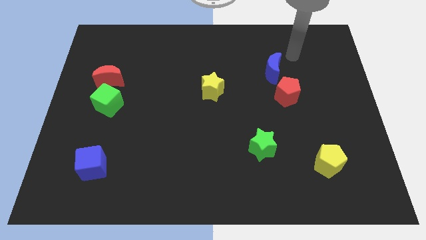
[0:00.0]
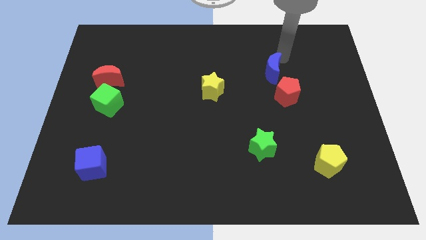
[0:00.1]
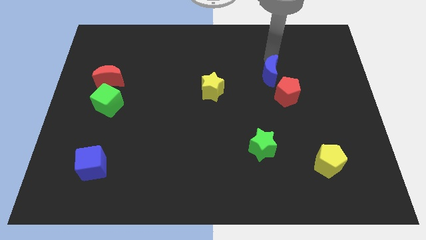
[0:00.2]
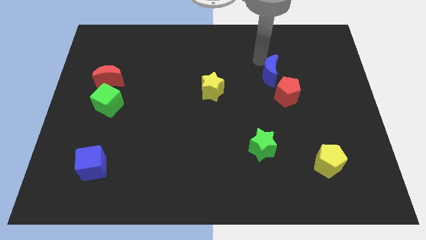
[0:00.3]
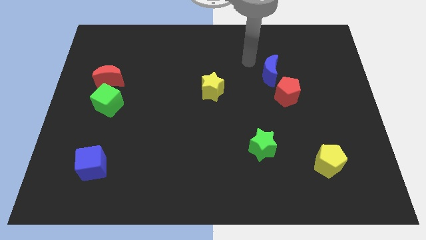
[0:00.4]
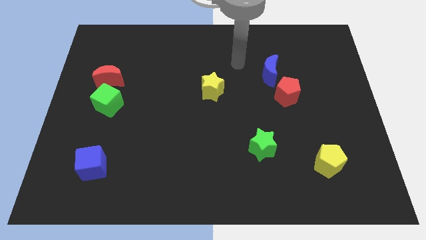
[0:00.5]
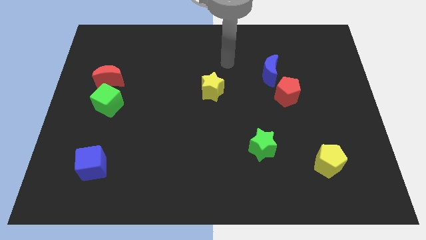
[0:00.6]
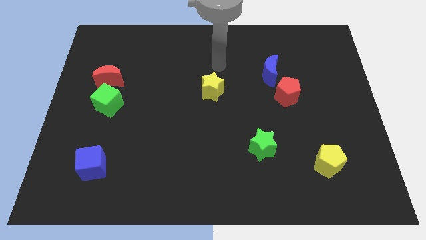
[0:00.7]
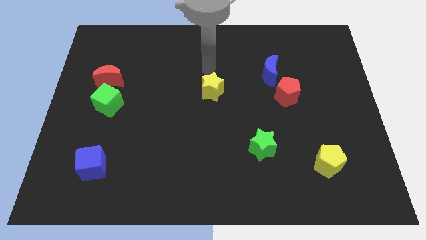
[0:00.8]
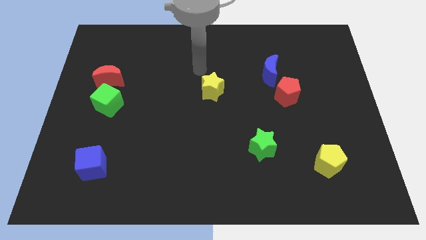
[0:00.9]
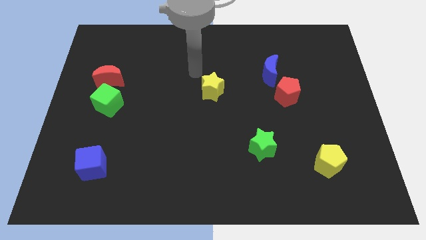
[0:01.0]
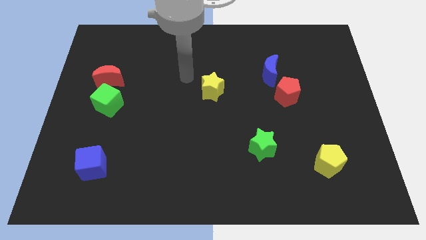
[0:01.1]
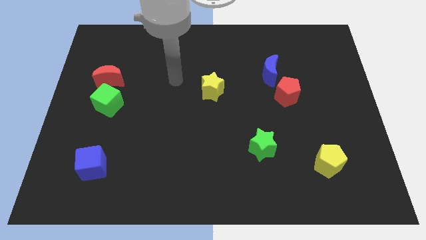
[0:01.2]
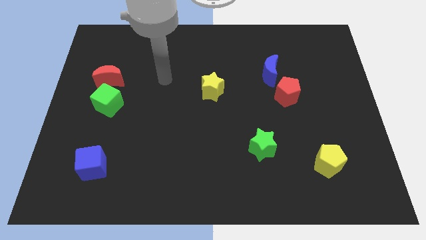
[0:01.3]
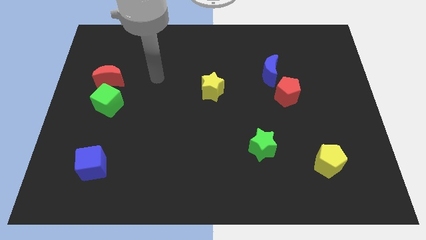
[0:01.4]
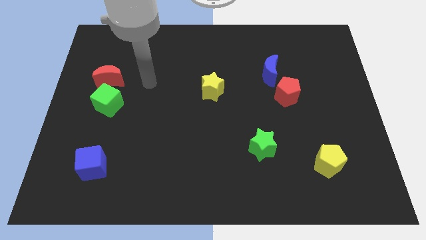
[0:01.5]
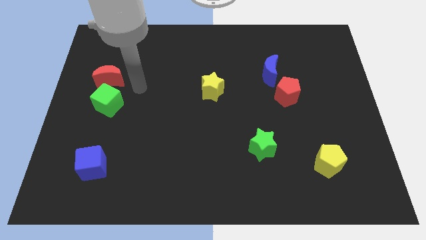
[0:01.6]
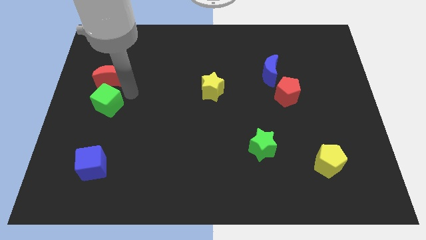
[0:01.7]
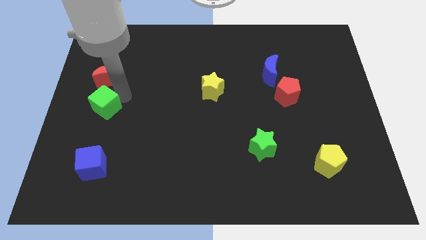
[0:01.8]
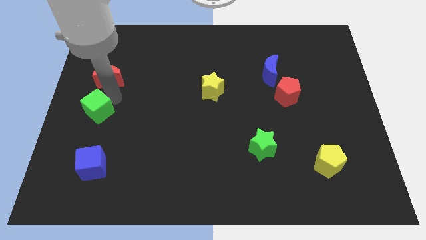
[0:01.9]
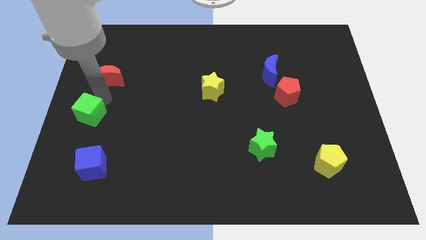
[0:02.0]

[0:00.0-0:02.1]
separate the red moon from the green cube

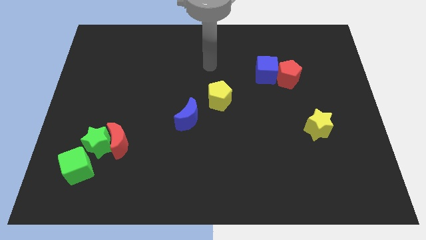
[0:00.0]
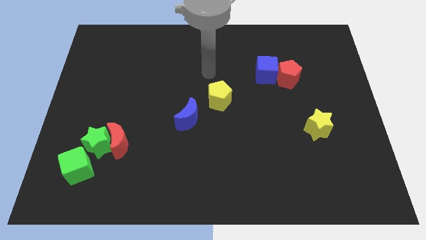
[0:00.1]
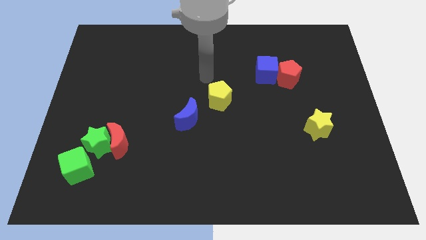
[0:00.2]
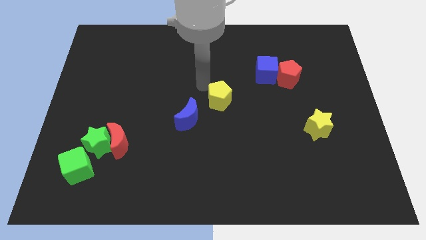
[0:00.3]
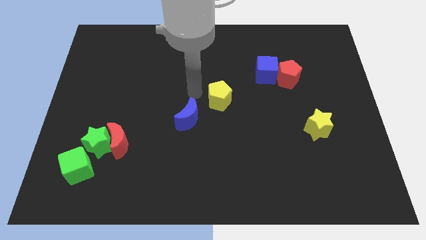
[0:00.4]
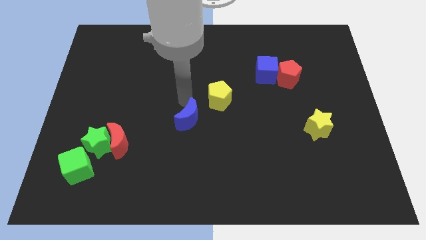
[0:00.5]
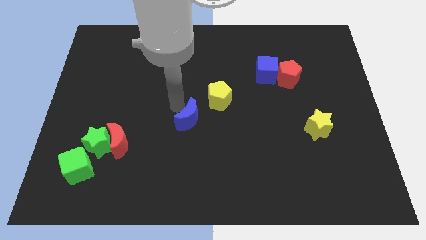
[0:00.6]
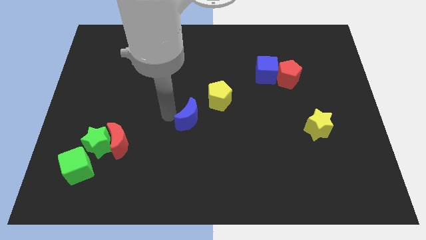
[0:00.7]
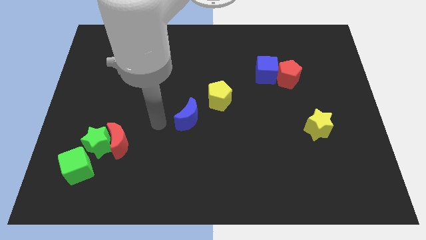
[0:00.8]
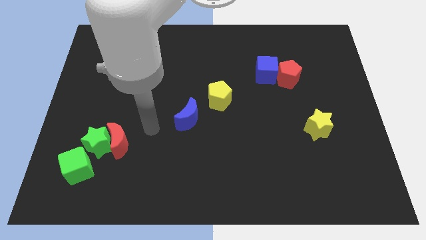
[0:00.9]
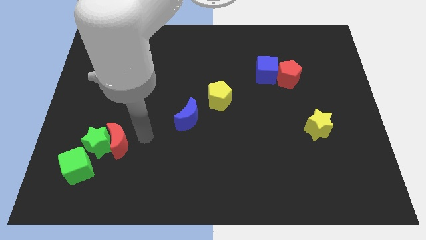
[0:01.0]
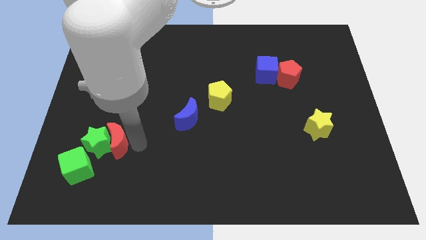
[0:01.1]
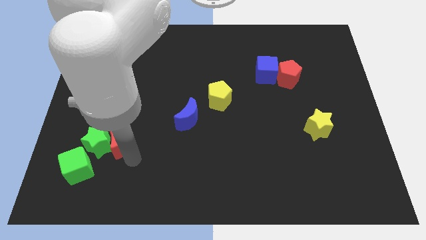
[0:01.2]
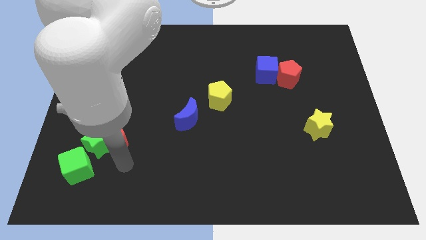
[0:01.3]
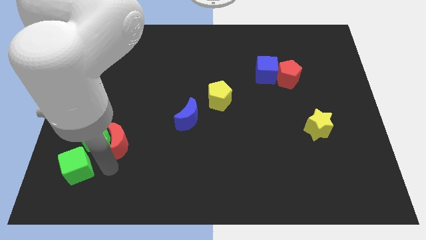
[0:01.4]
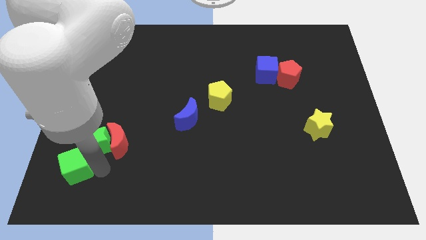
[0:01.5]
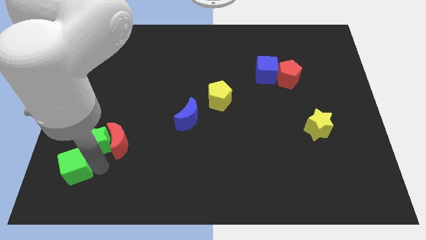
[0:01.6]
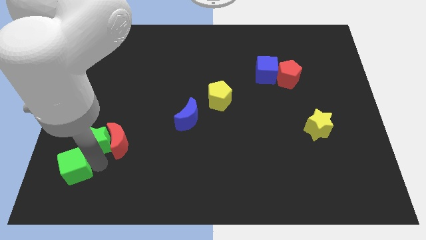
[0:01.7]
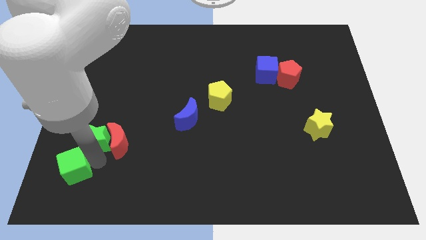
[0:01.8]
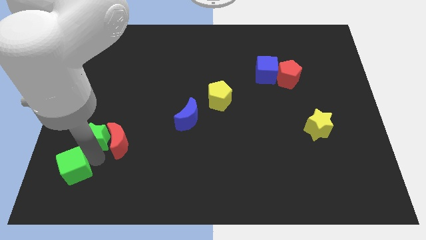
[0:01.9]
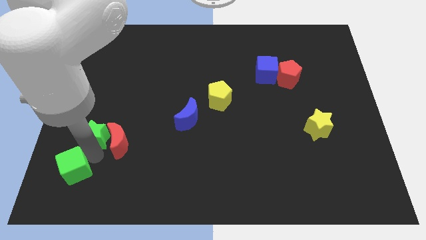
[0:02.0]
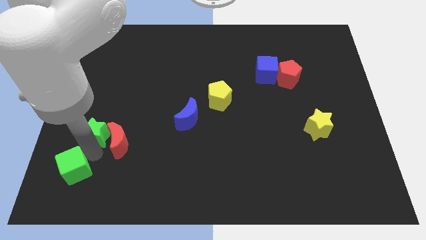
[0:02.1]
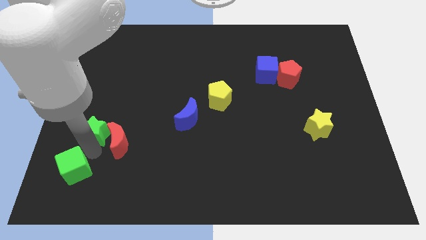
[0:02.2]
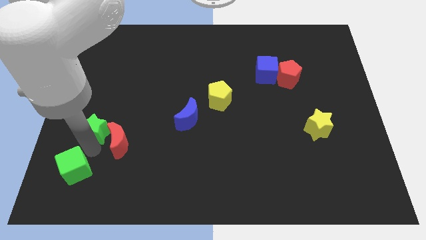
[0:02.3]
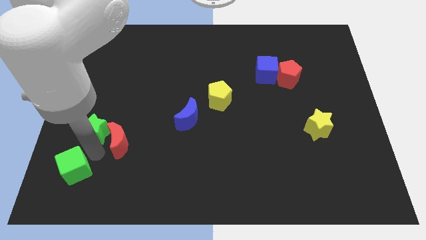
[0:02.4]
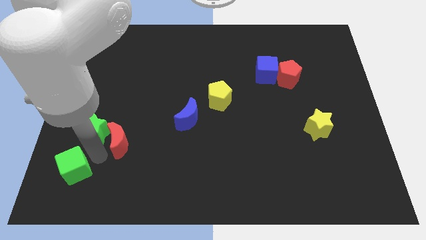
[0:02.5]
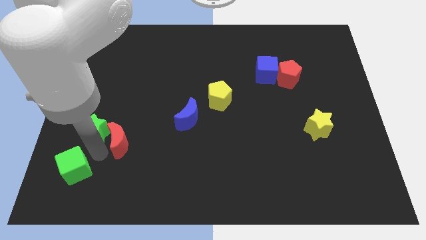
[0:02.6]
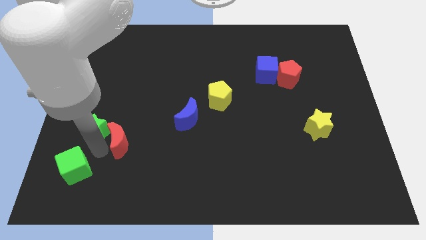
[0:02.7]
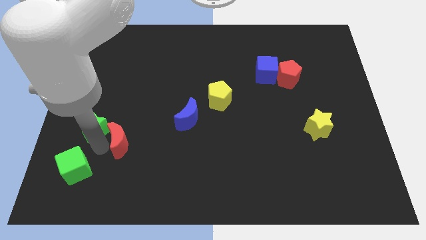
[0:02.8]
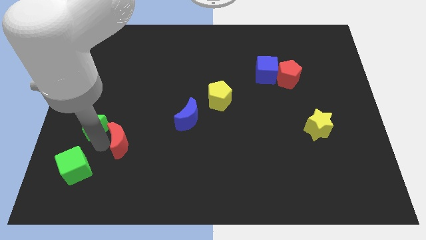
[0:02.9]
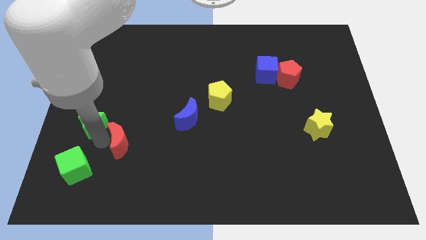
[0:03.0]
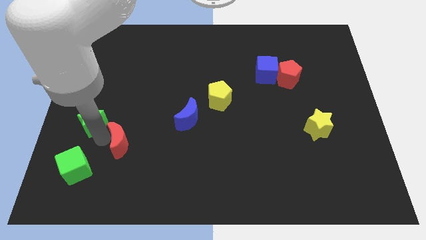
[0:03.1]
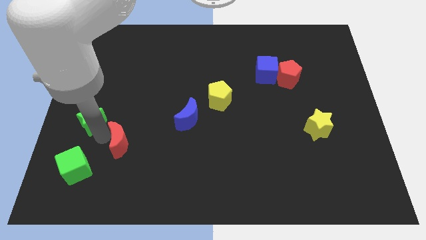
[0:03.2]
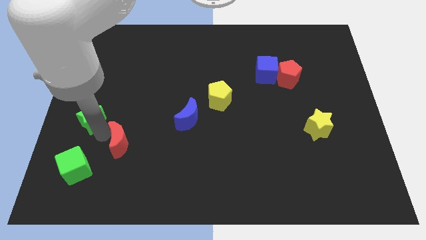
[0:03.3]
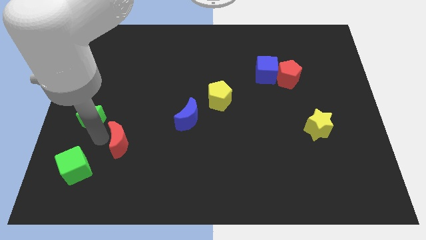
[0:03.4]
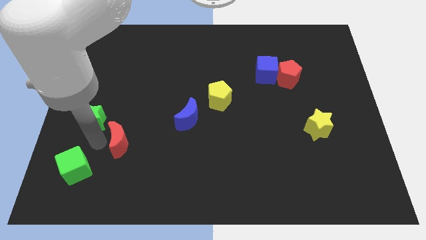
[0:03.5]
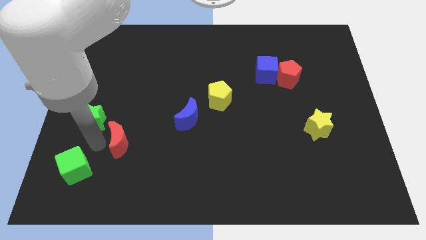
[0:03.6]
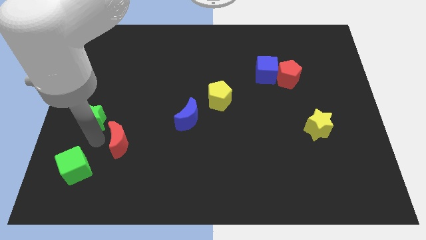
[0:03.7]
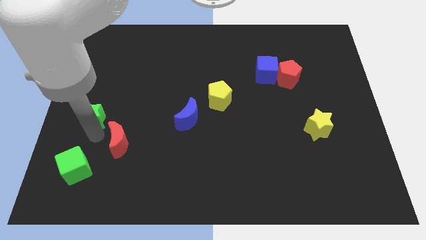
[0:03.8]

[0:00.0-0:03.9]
separate the green star from the red moon and green cube

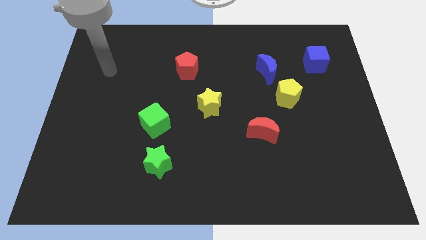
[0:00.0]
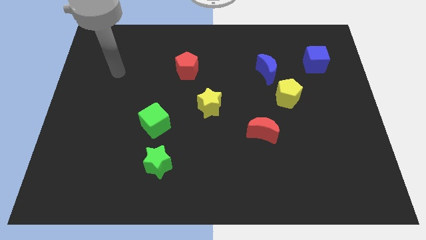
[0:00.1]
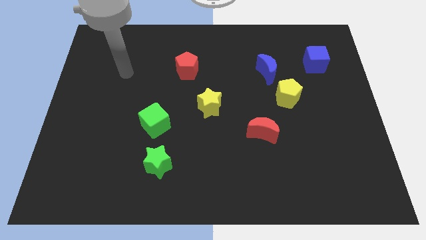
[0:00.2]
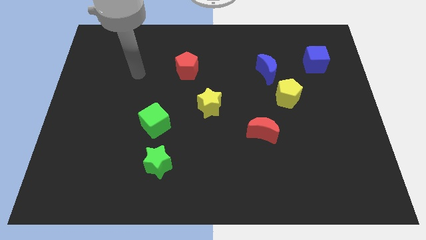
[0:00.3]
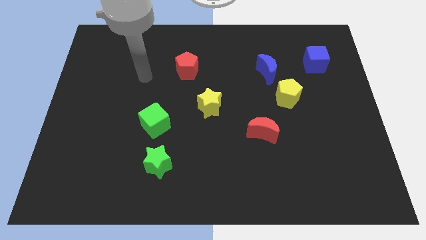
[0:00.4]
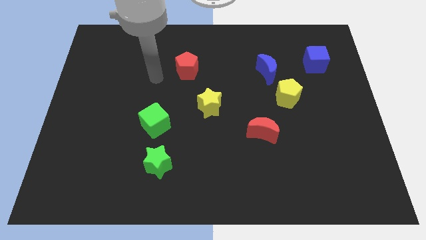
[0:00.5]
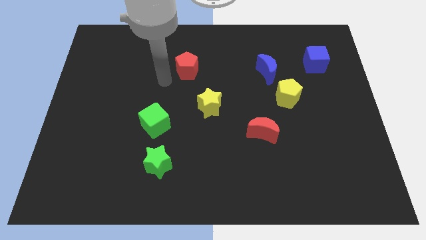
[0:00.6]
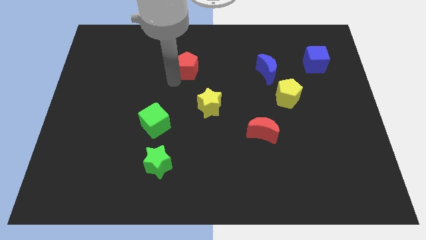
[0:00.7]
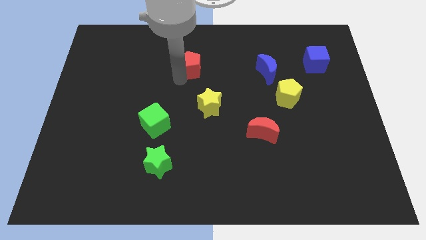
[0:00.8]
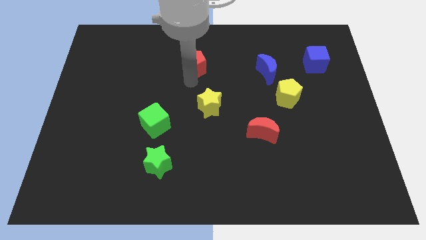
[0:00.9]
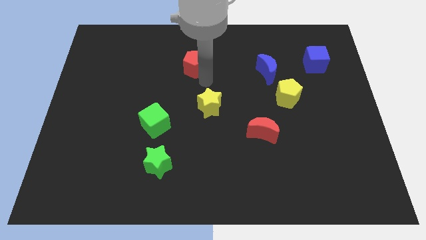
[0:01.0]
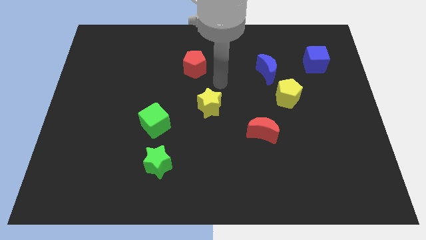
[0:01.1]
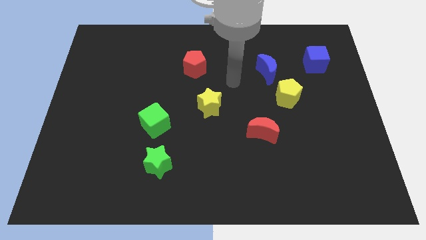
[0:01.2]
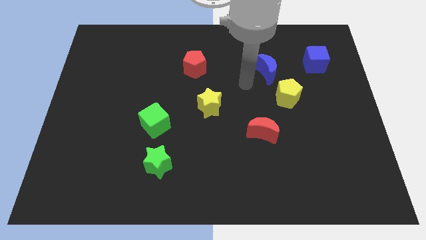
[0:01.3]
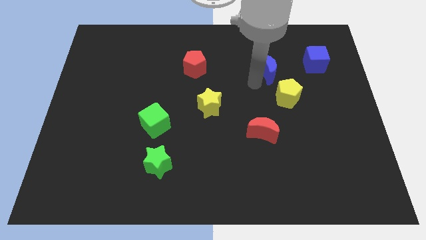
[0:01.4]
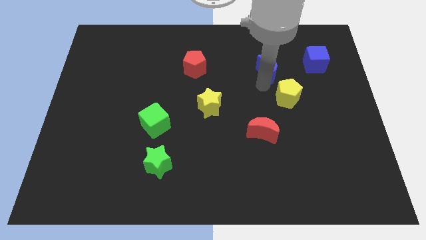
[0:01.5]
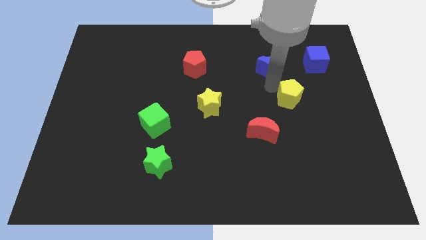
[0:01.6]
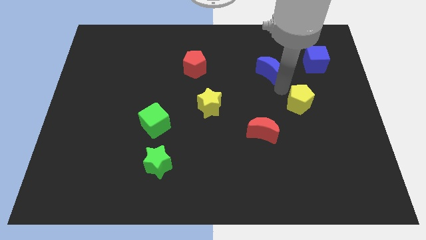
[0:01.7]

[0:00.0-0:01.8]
separate the blue moon from the yellow pentagon

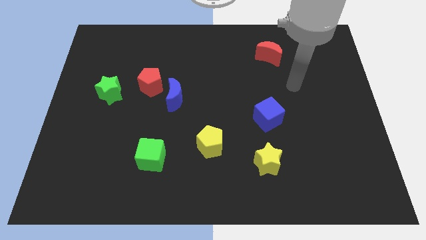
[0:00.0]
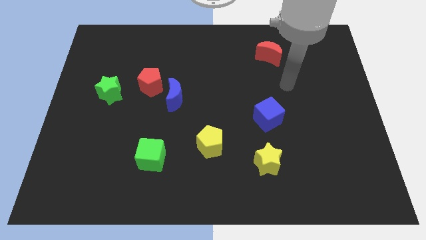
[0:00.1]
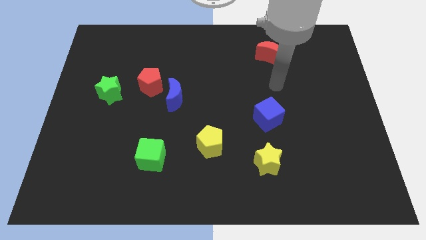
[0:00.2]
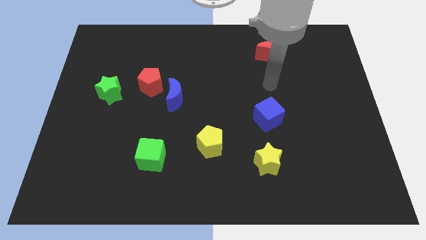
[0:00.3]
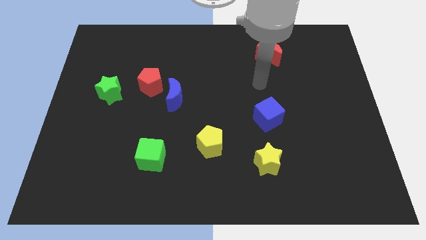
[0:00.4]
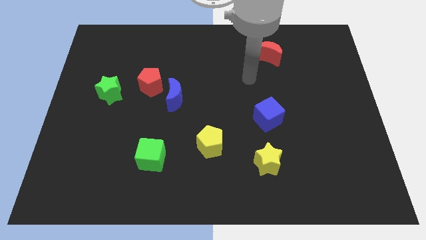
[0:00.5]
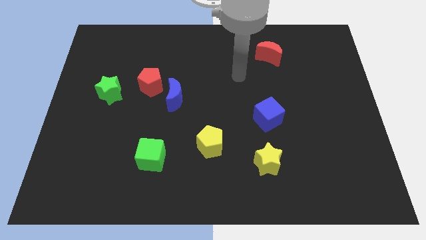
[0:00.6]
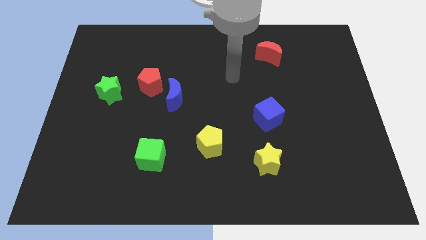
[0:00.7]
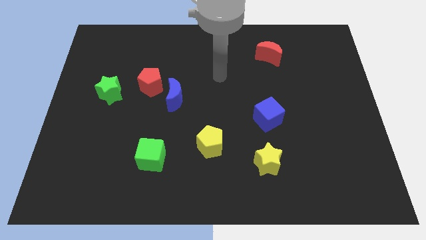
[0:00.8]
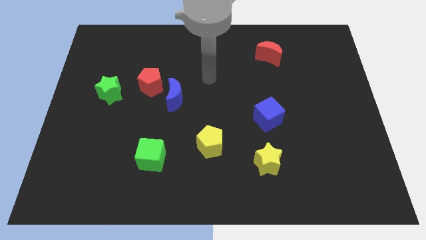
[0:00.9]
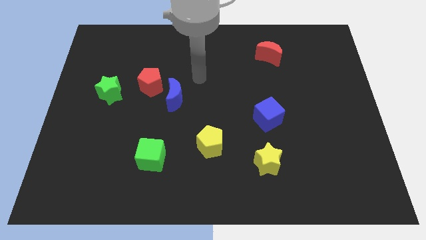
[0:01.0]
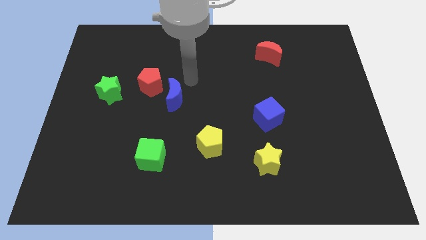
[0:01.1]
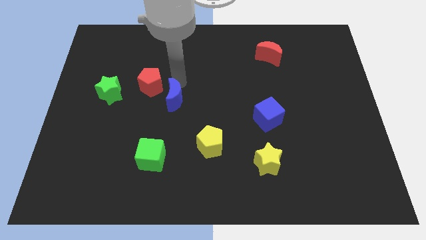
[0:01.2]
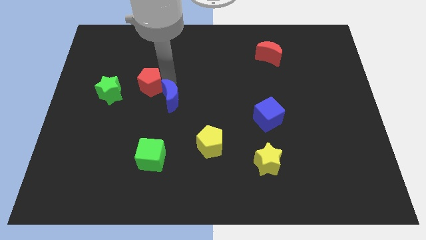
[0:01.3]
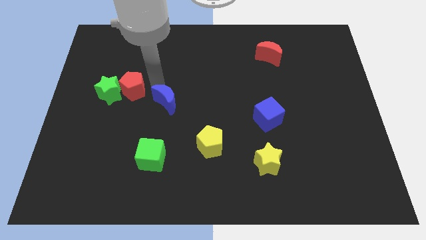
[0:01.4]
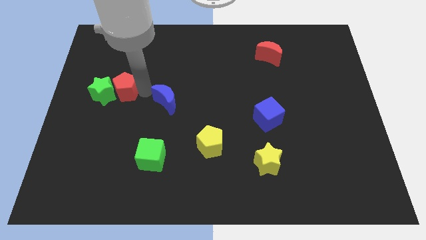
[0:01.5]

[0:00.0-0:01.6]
move the blue moon away from the red pentagon
